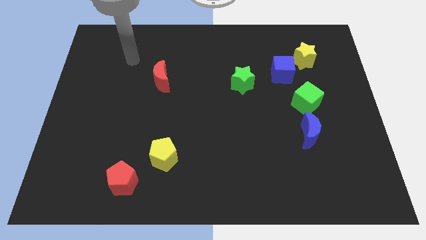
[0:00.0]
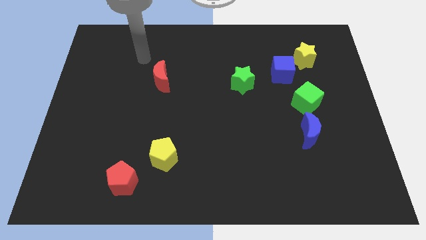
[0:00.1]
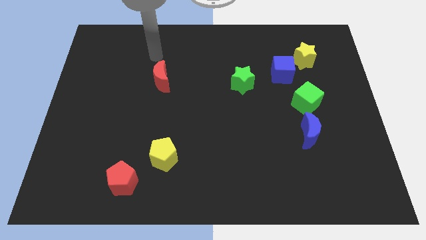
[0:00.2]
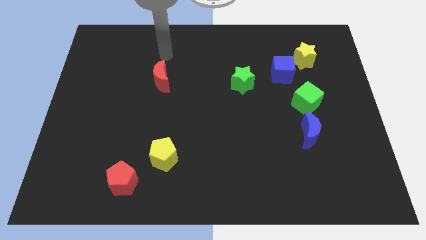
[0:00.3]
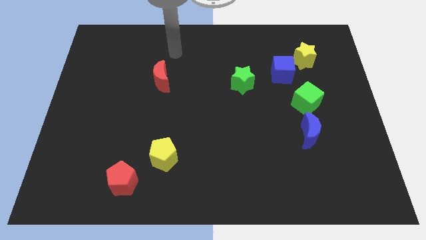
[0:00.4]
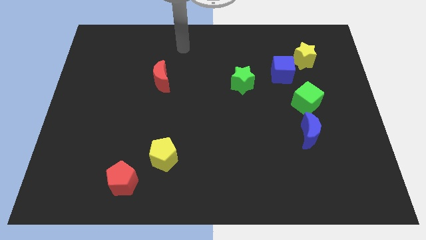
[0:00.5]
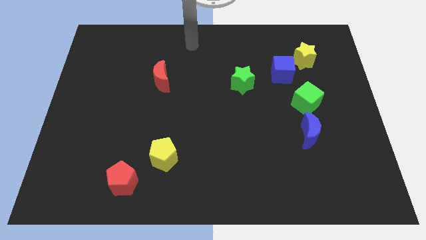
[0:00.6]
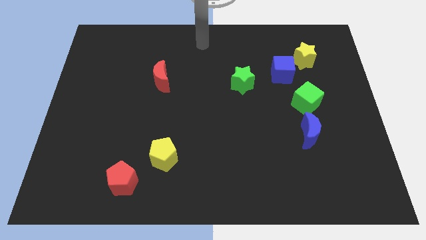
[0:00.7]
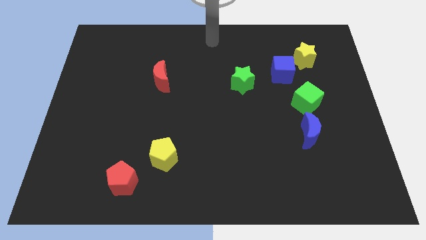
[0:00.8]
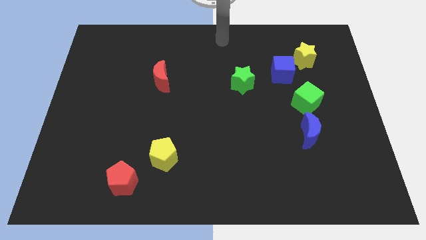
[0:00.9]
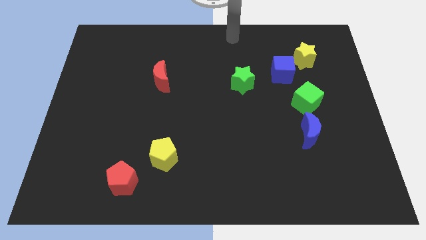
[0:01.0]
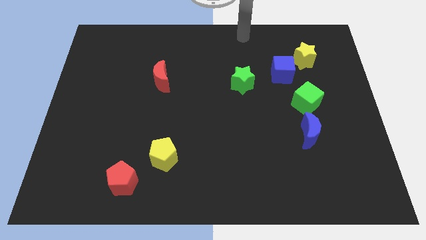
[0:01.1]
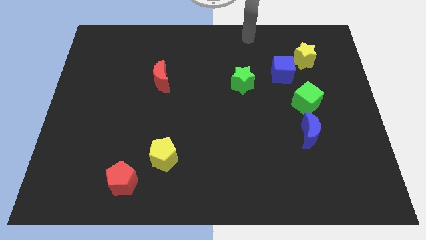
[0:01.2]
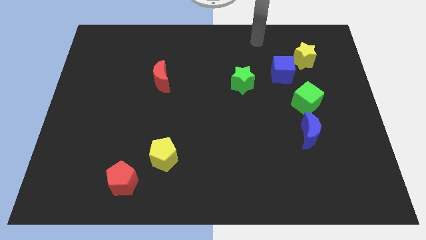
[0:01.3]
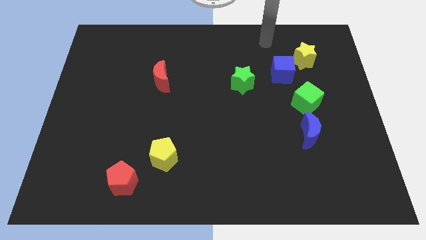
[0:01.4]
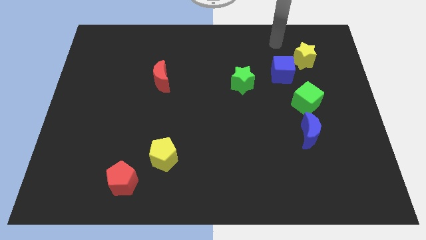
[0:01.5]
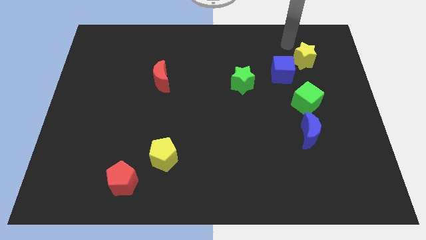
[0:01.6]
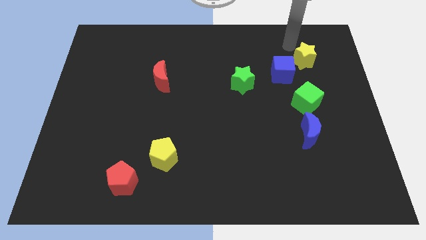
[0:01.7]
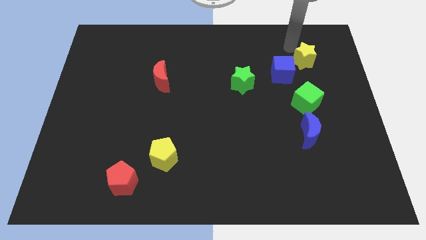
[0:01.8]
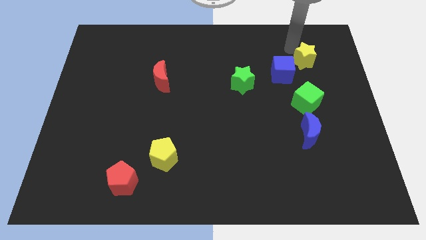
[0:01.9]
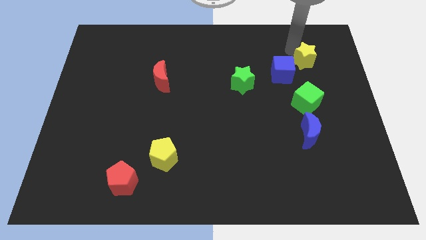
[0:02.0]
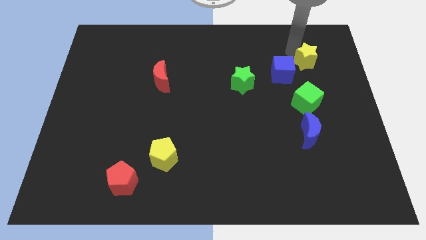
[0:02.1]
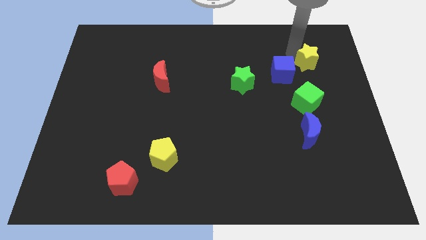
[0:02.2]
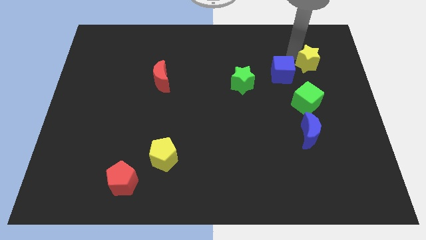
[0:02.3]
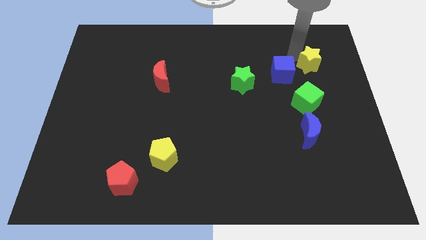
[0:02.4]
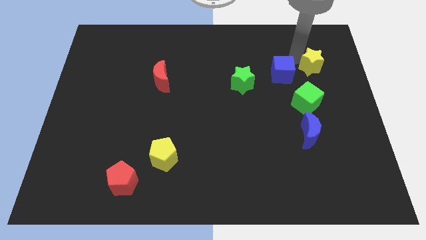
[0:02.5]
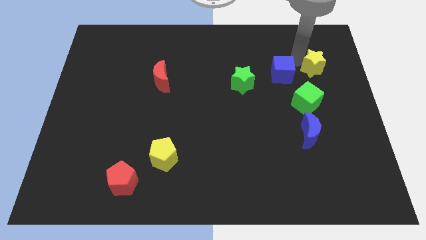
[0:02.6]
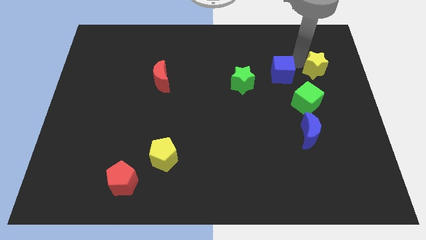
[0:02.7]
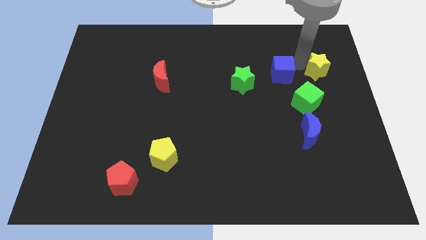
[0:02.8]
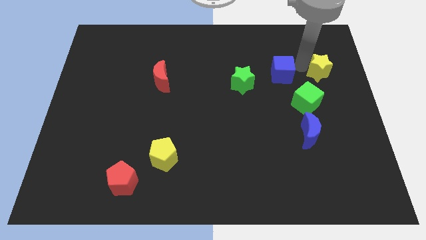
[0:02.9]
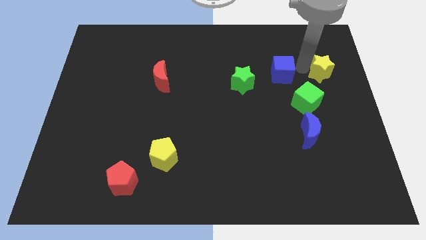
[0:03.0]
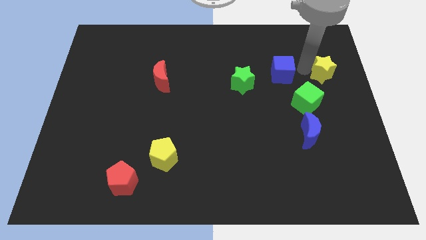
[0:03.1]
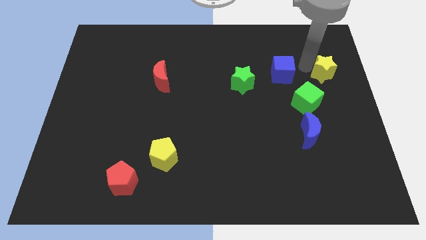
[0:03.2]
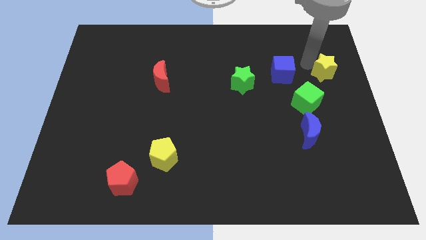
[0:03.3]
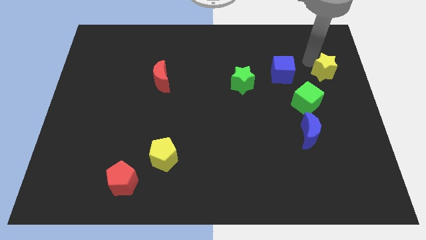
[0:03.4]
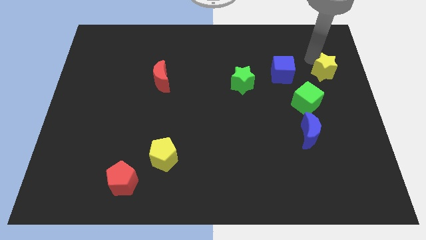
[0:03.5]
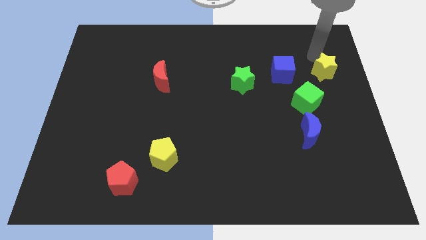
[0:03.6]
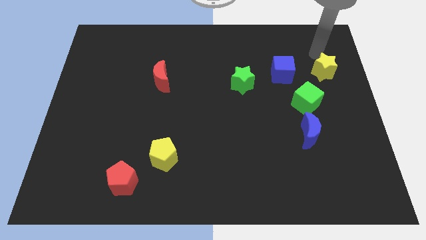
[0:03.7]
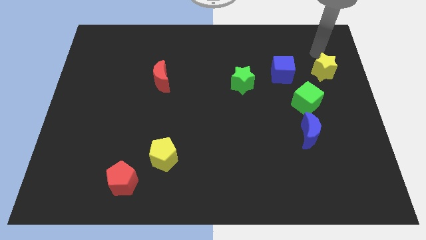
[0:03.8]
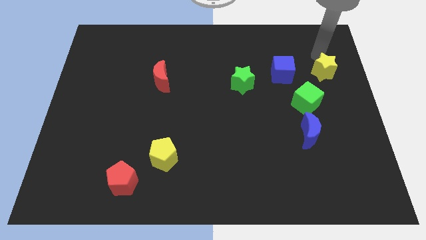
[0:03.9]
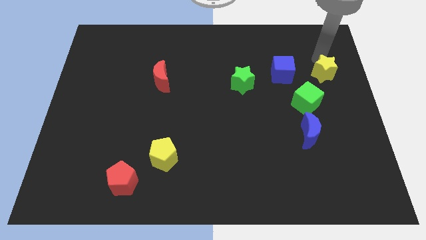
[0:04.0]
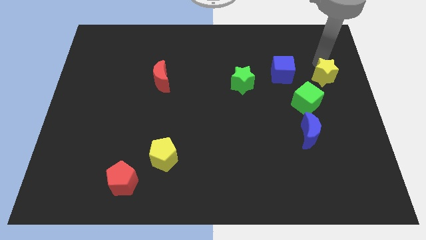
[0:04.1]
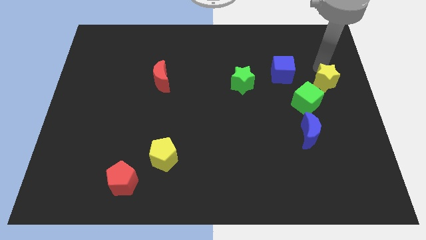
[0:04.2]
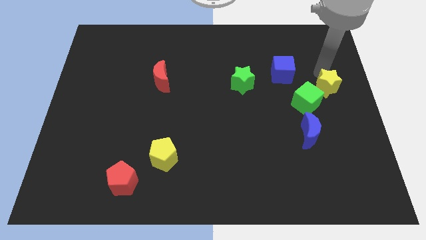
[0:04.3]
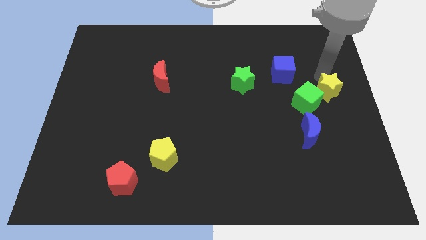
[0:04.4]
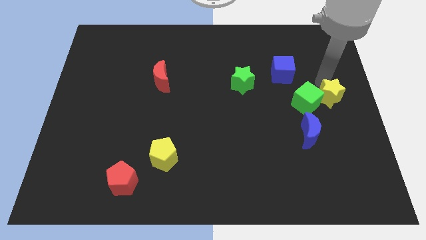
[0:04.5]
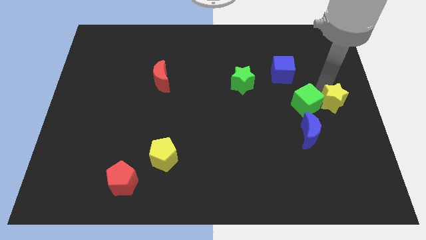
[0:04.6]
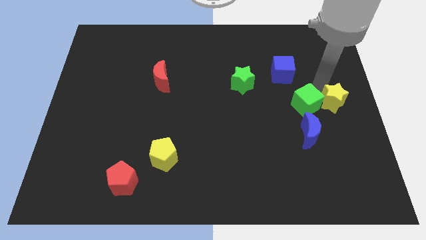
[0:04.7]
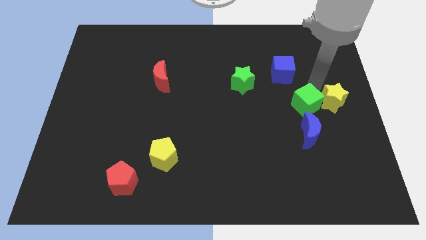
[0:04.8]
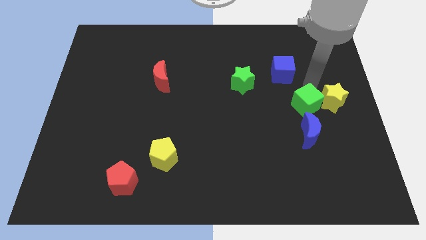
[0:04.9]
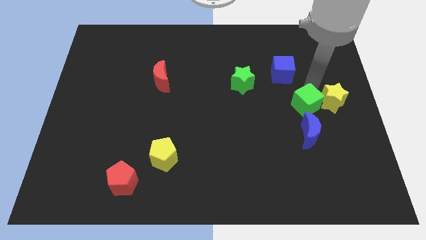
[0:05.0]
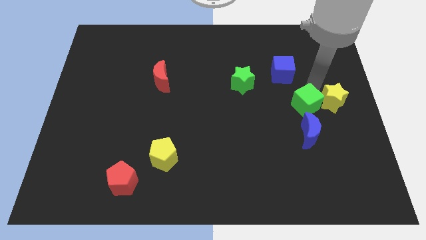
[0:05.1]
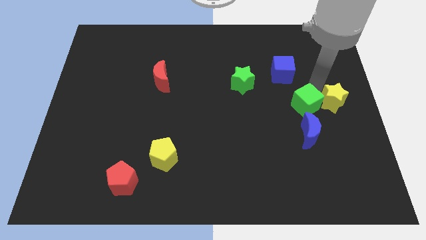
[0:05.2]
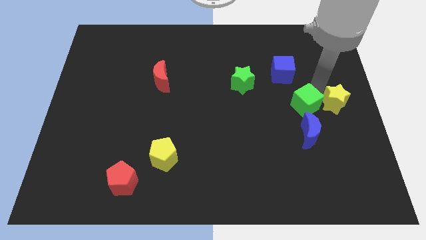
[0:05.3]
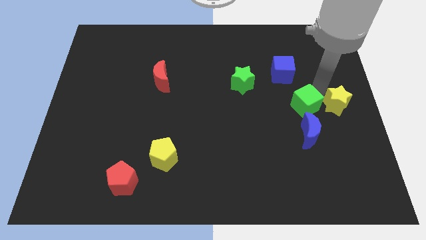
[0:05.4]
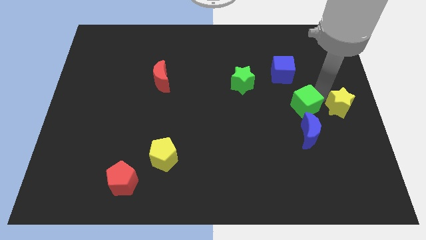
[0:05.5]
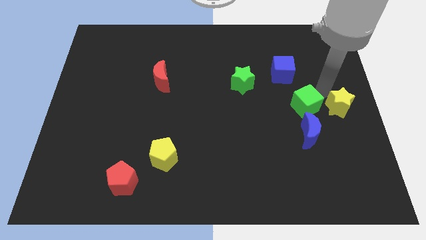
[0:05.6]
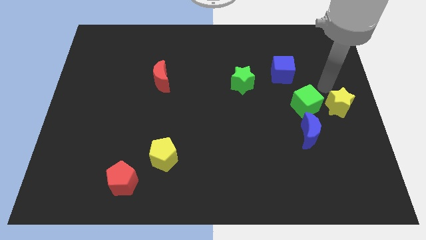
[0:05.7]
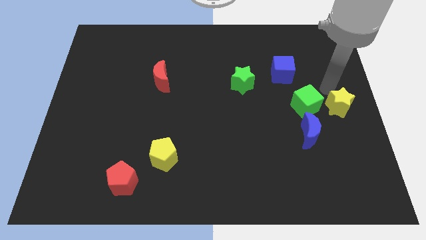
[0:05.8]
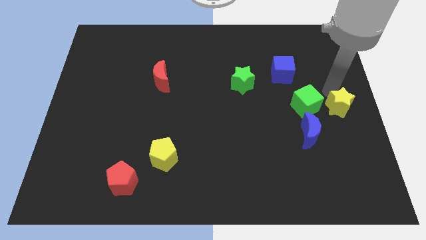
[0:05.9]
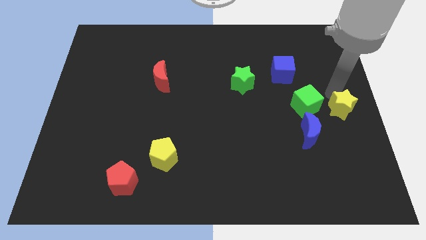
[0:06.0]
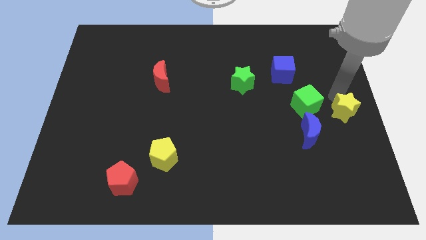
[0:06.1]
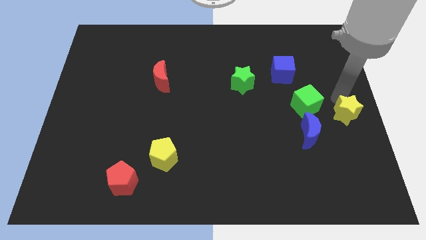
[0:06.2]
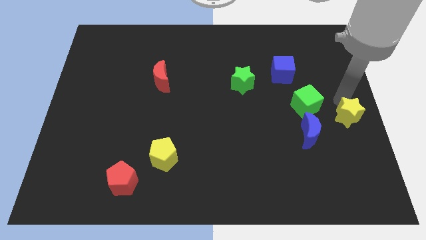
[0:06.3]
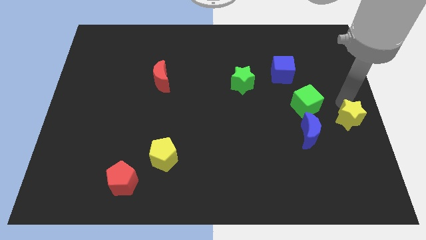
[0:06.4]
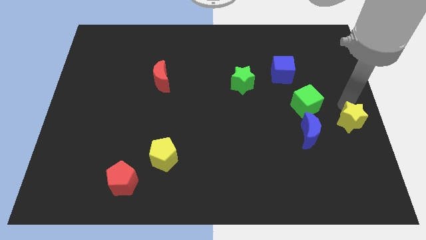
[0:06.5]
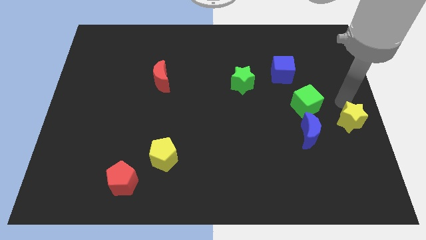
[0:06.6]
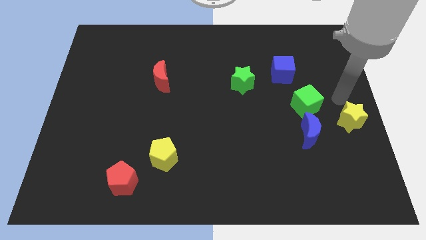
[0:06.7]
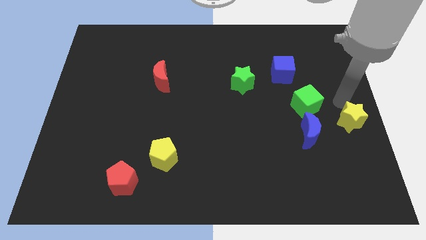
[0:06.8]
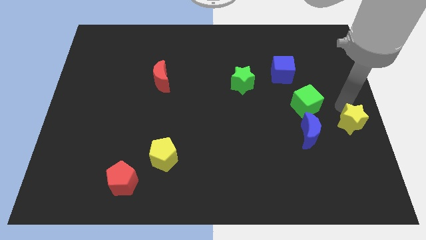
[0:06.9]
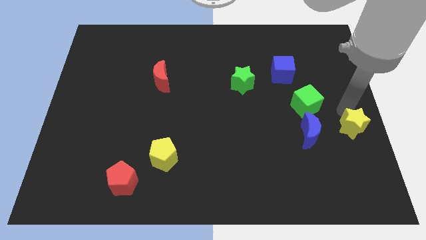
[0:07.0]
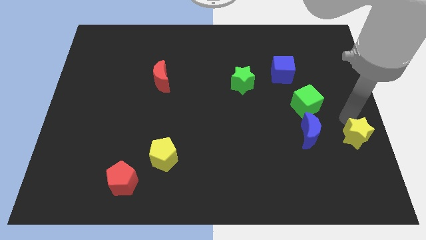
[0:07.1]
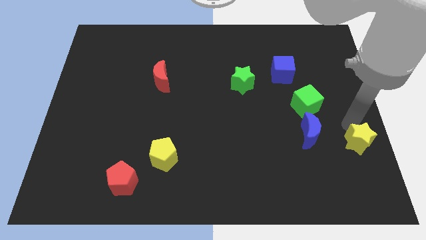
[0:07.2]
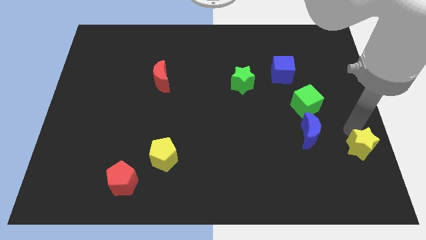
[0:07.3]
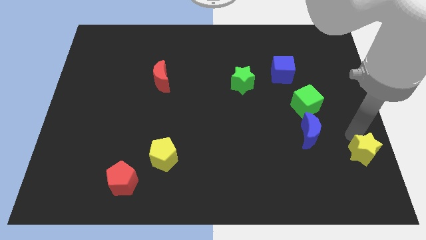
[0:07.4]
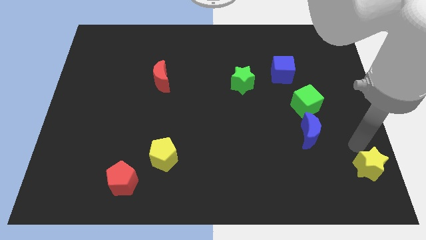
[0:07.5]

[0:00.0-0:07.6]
put the yellow star to the bottom right of the board

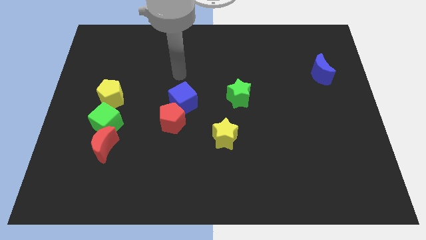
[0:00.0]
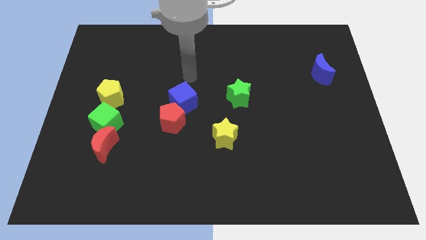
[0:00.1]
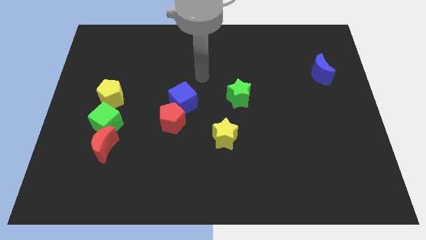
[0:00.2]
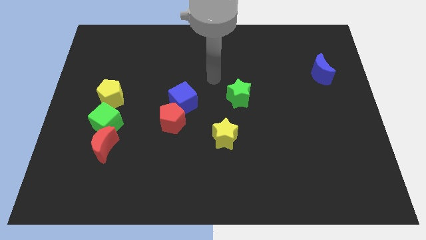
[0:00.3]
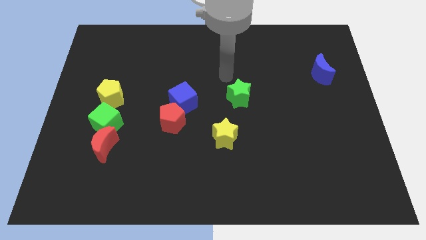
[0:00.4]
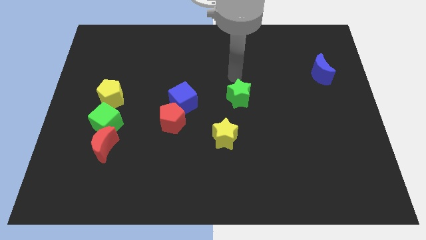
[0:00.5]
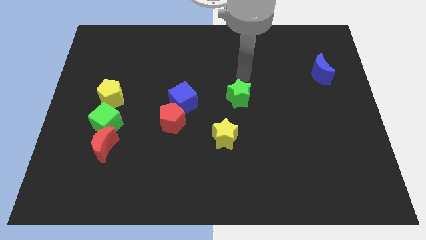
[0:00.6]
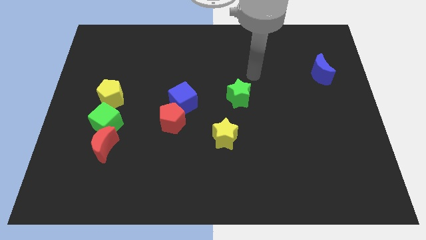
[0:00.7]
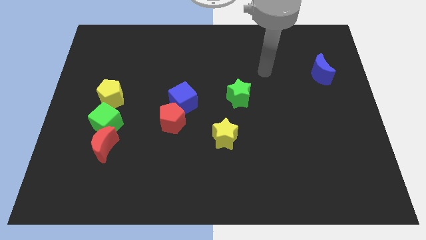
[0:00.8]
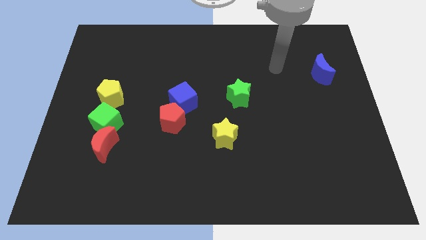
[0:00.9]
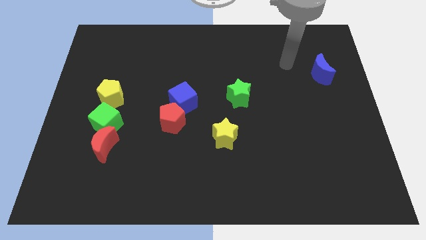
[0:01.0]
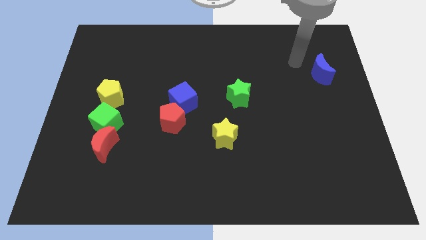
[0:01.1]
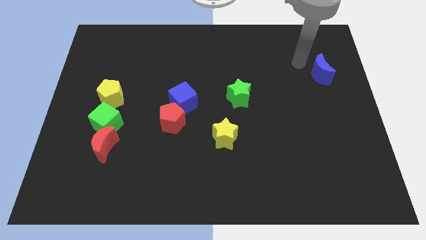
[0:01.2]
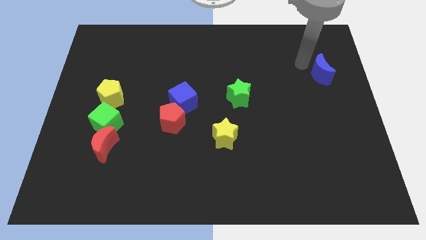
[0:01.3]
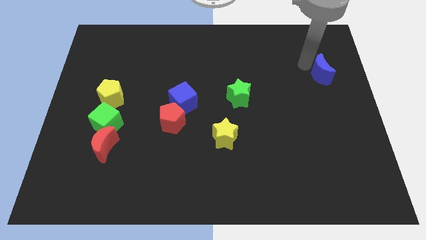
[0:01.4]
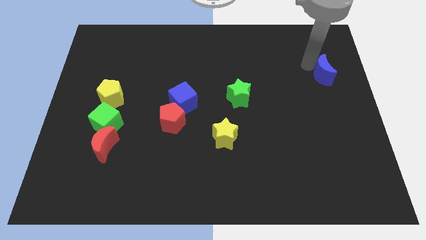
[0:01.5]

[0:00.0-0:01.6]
push the blue moon to the right side
